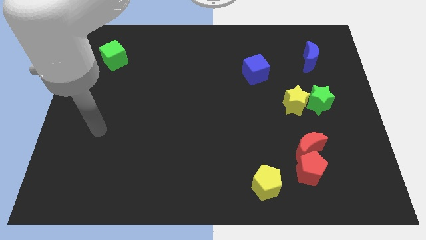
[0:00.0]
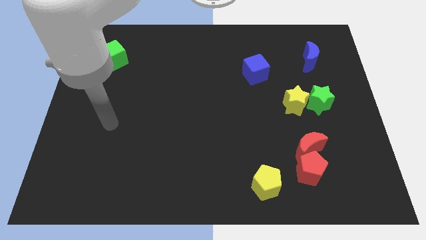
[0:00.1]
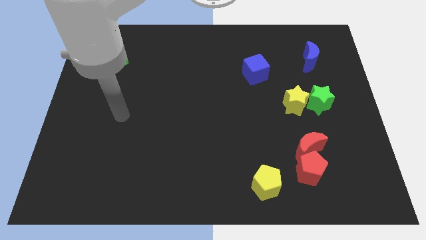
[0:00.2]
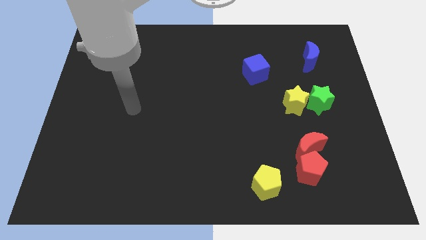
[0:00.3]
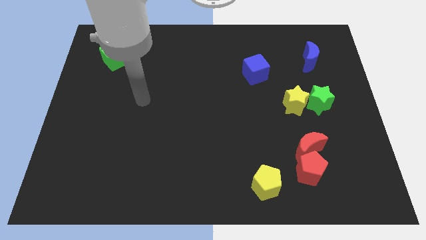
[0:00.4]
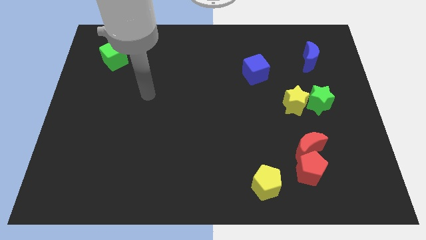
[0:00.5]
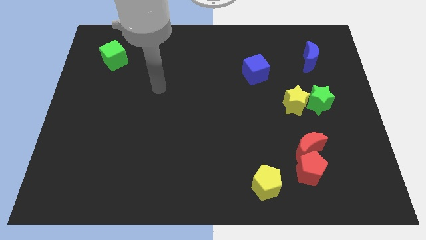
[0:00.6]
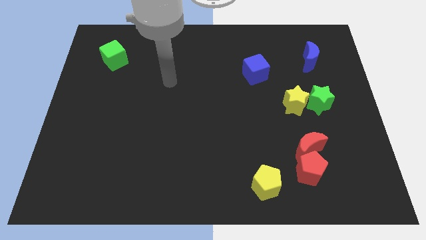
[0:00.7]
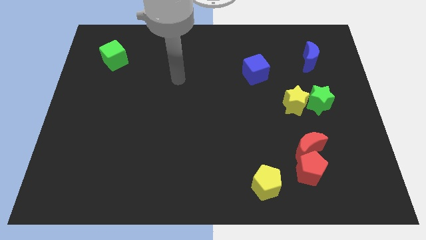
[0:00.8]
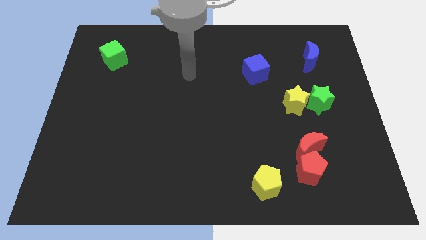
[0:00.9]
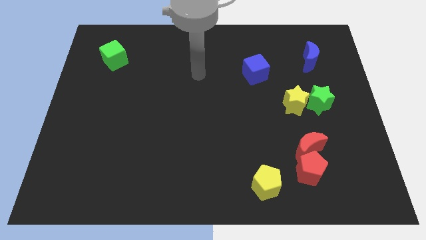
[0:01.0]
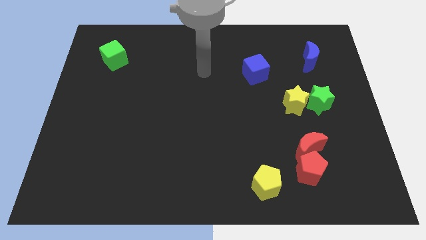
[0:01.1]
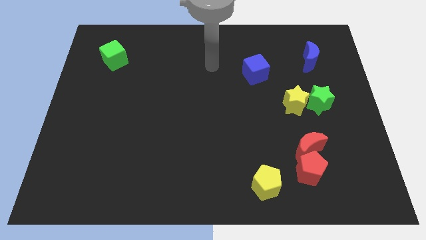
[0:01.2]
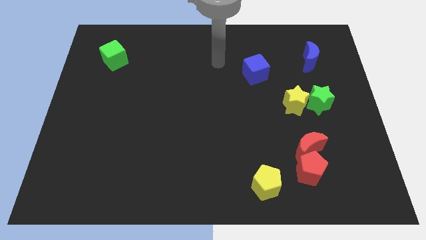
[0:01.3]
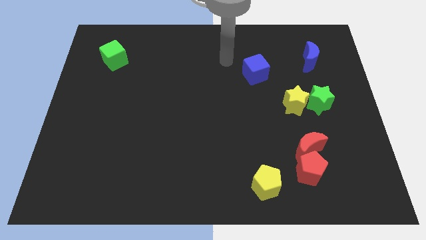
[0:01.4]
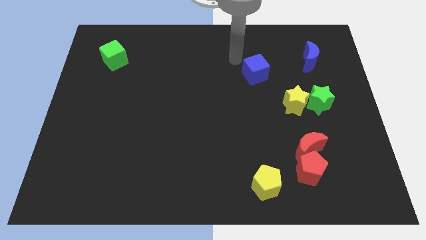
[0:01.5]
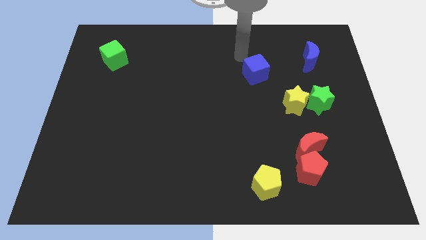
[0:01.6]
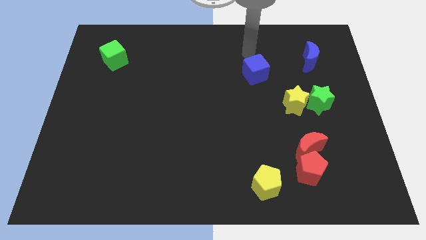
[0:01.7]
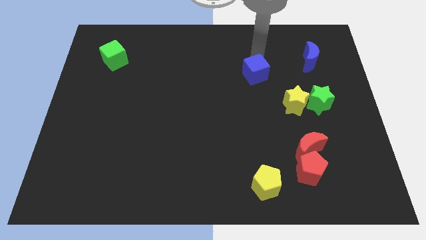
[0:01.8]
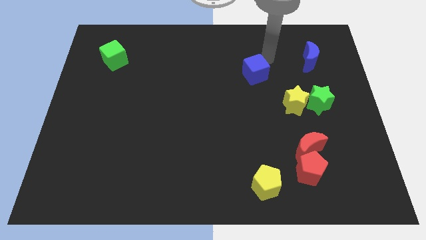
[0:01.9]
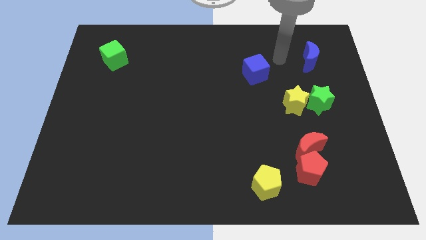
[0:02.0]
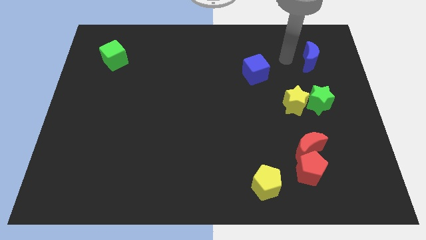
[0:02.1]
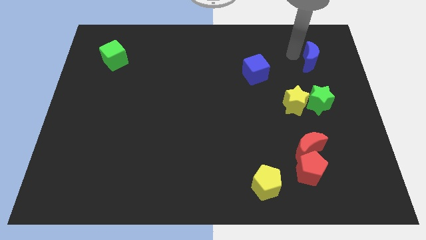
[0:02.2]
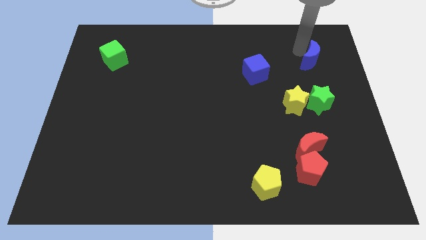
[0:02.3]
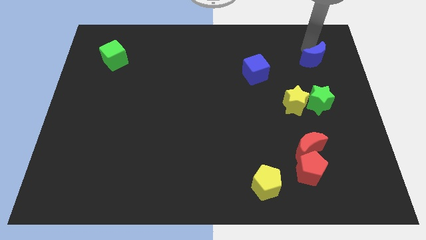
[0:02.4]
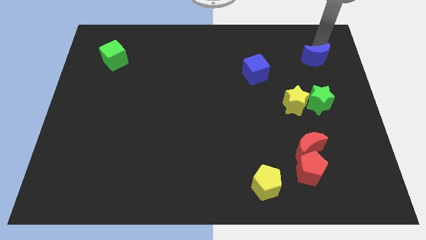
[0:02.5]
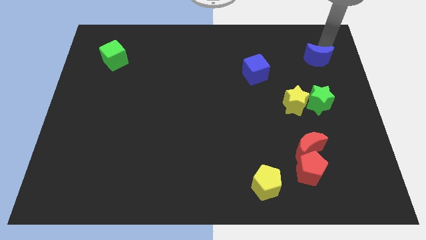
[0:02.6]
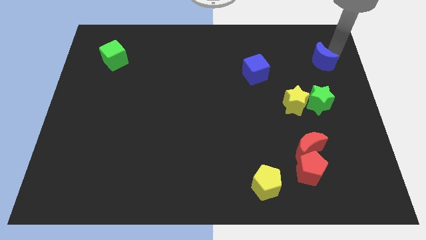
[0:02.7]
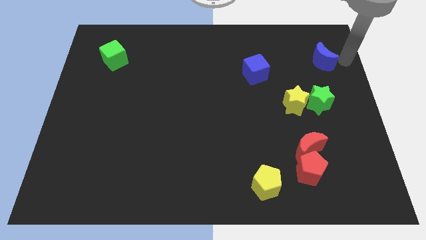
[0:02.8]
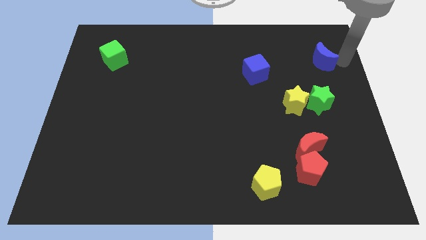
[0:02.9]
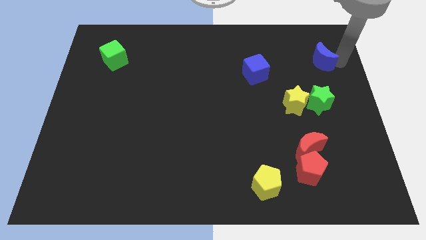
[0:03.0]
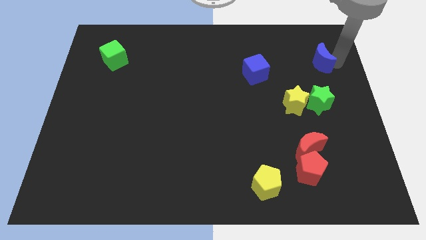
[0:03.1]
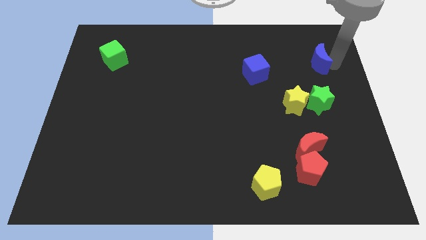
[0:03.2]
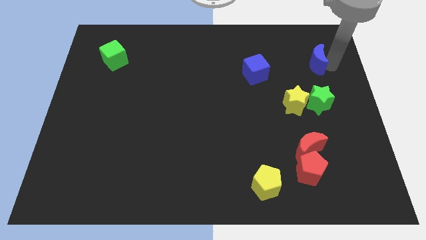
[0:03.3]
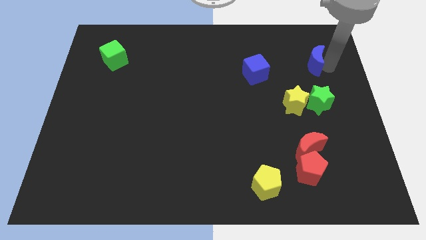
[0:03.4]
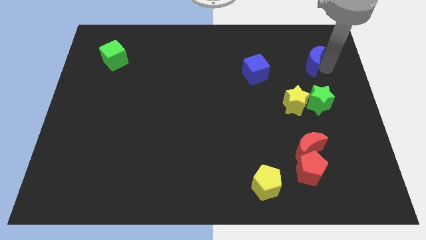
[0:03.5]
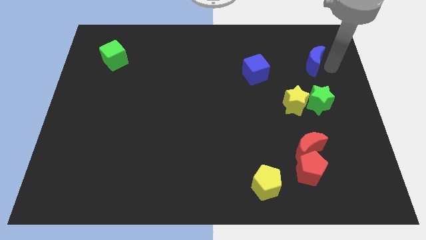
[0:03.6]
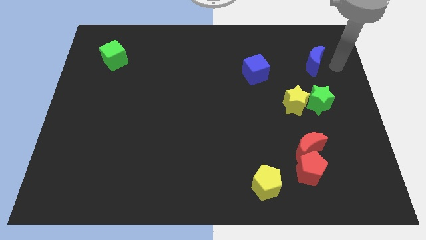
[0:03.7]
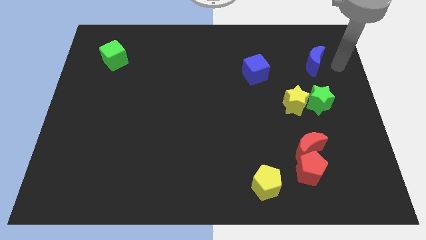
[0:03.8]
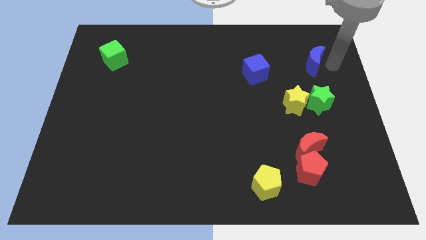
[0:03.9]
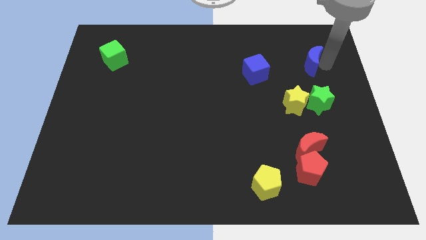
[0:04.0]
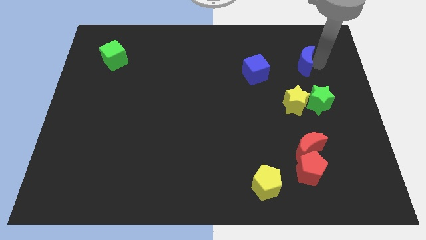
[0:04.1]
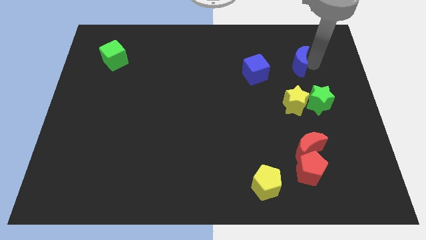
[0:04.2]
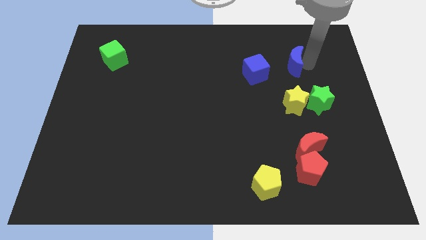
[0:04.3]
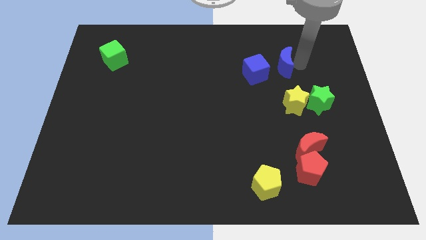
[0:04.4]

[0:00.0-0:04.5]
slightly slide the blue moon left

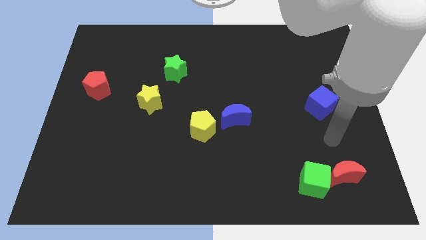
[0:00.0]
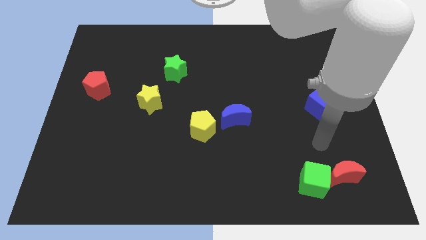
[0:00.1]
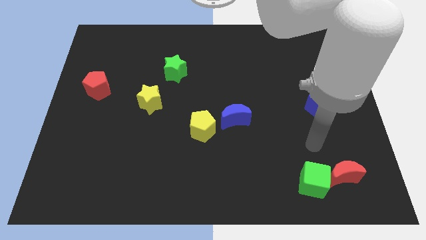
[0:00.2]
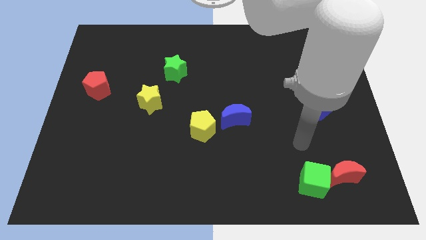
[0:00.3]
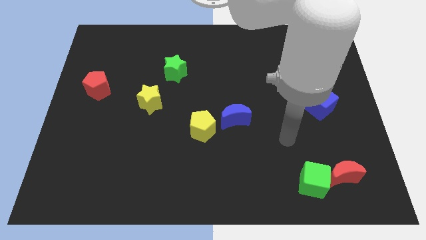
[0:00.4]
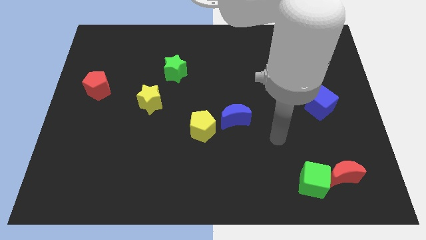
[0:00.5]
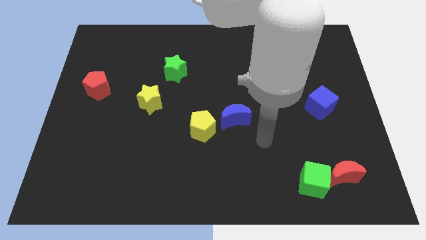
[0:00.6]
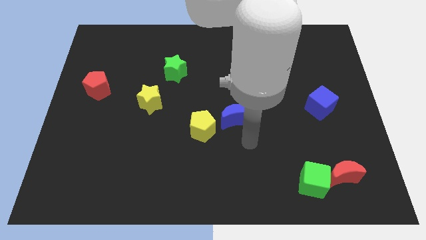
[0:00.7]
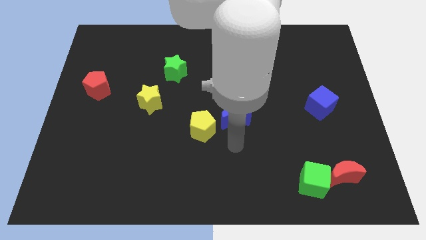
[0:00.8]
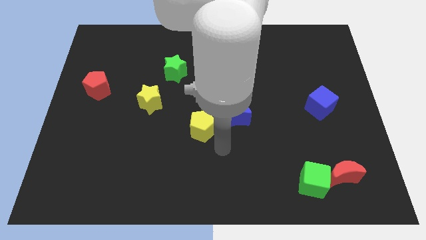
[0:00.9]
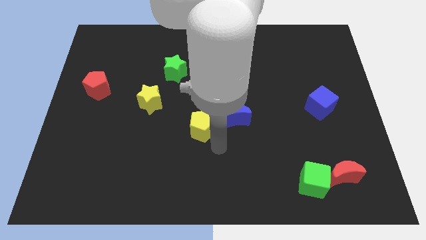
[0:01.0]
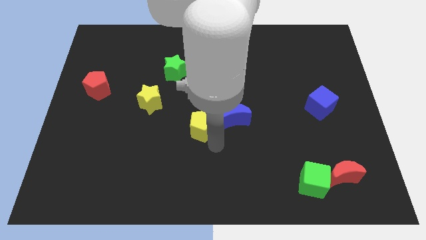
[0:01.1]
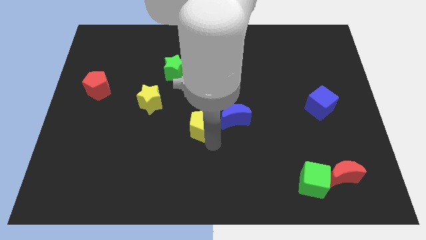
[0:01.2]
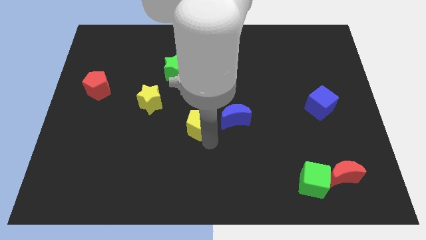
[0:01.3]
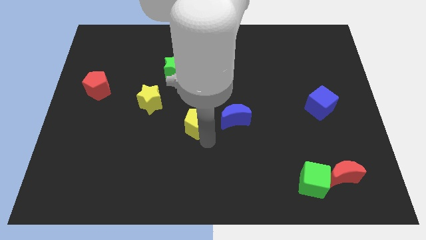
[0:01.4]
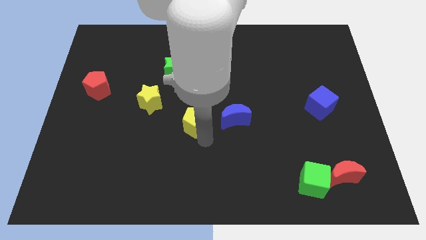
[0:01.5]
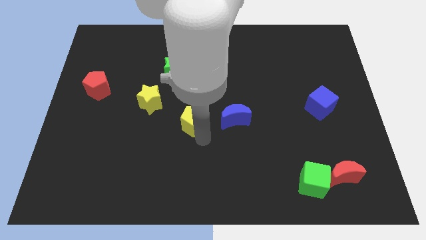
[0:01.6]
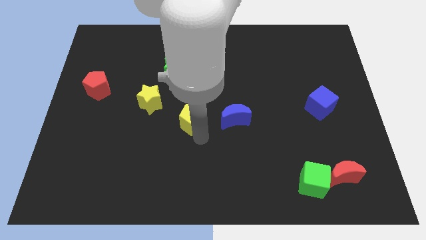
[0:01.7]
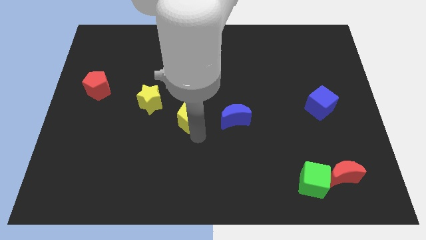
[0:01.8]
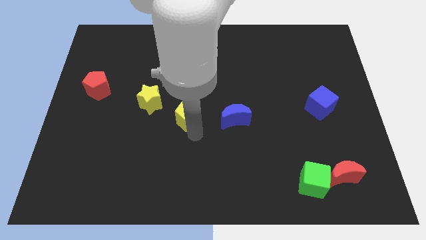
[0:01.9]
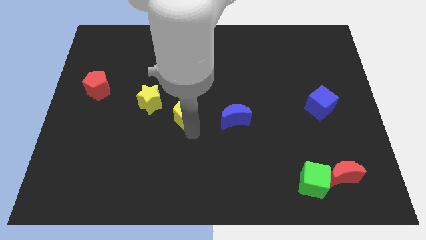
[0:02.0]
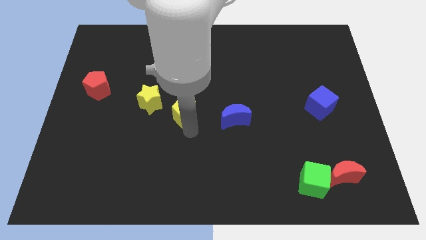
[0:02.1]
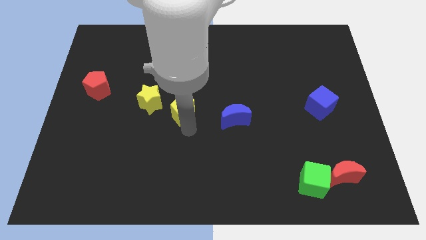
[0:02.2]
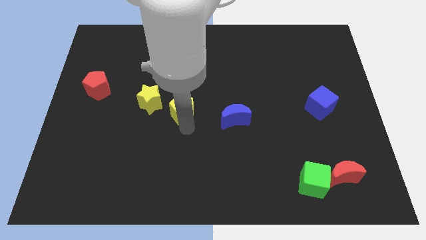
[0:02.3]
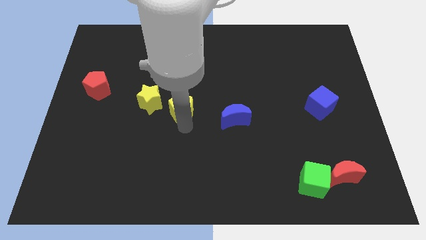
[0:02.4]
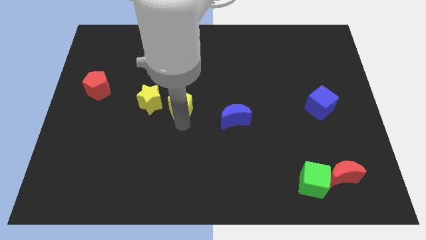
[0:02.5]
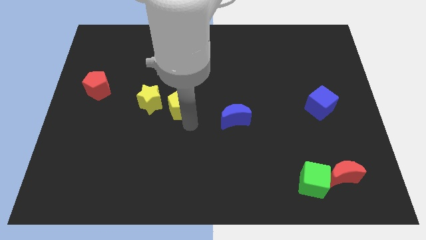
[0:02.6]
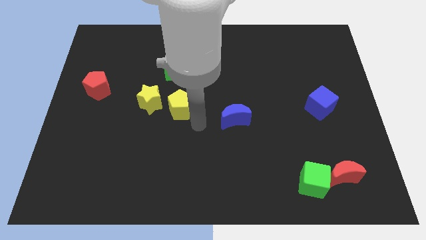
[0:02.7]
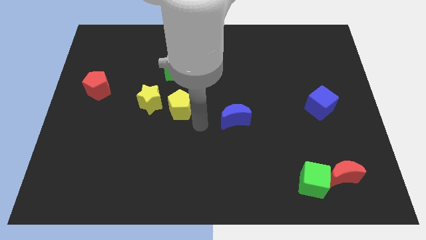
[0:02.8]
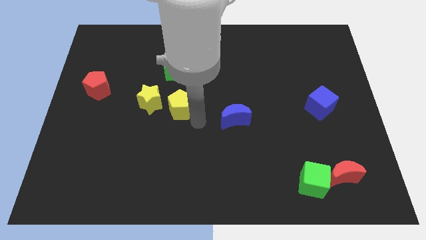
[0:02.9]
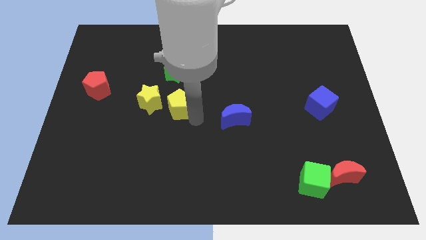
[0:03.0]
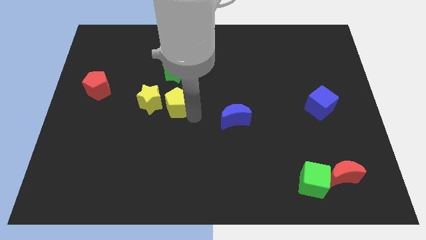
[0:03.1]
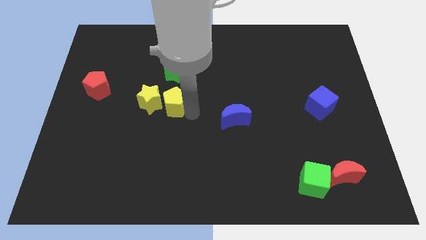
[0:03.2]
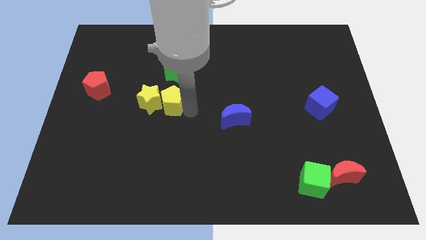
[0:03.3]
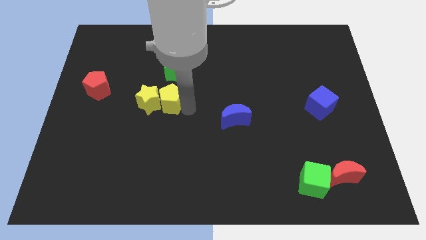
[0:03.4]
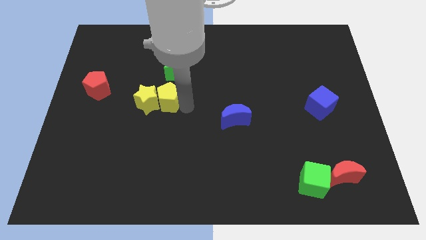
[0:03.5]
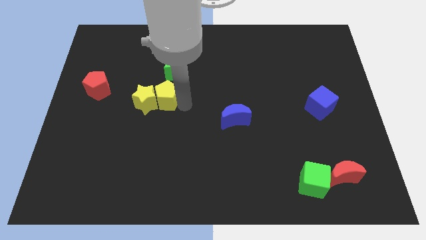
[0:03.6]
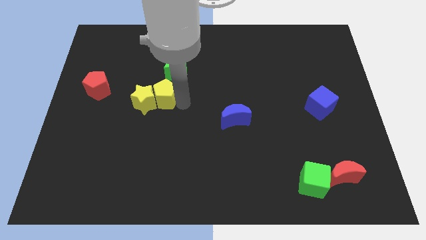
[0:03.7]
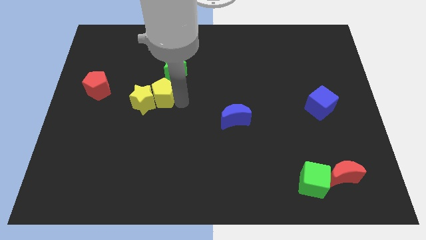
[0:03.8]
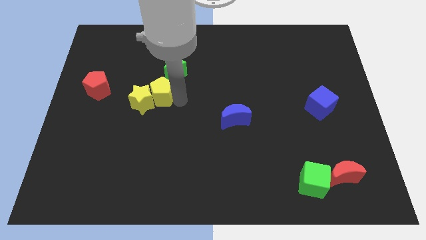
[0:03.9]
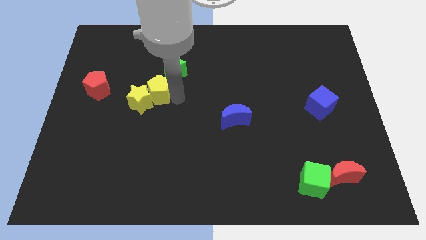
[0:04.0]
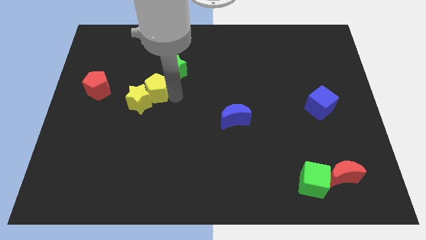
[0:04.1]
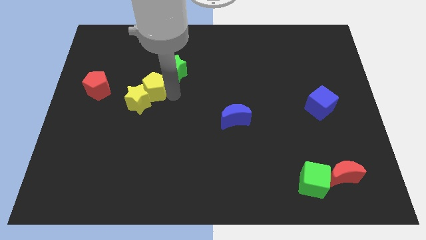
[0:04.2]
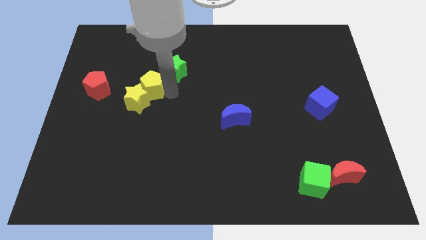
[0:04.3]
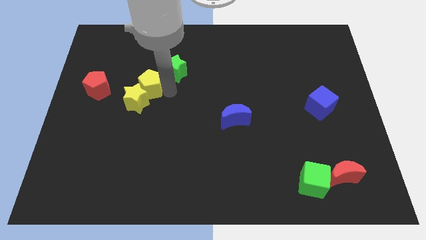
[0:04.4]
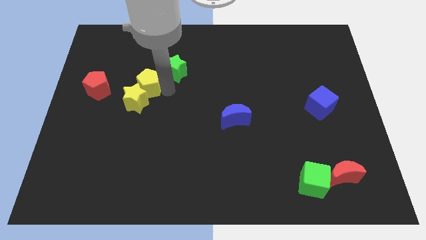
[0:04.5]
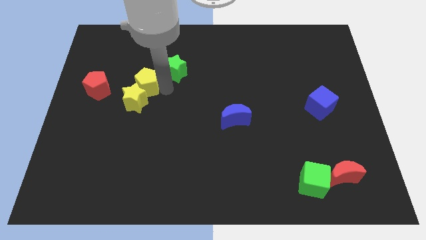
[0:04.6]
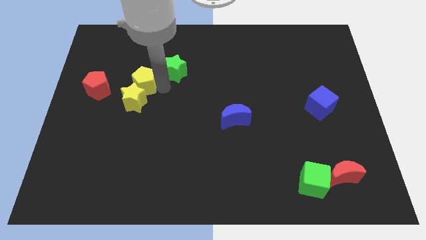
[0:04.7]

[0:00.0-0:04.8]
push the yellow pentagon up and to the left
